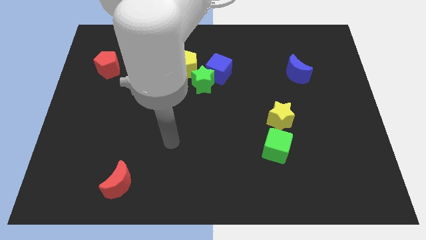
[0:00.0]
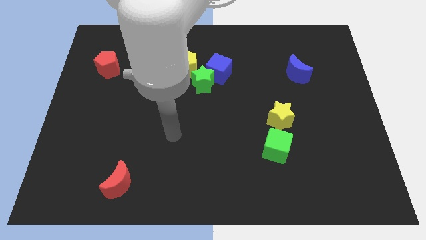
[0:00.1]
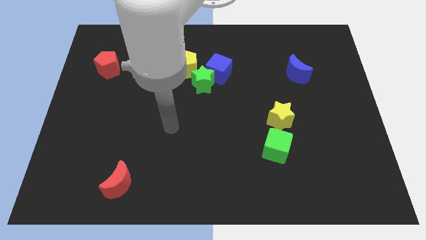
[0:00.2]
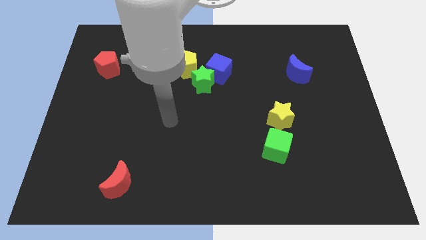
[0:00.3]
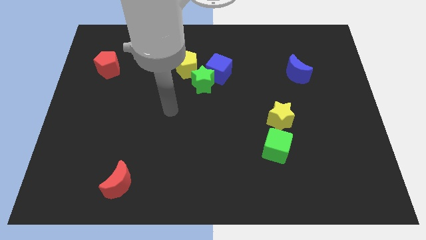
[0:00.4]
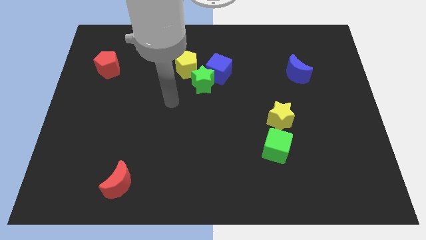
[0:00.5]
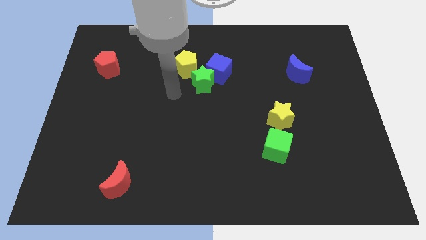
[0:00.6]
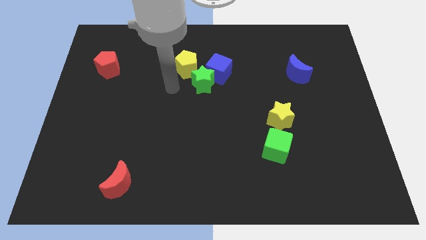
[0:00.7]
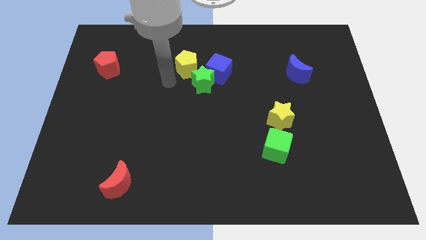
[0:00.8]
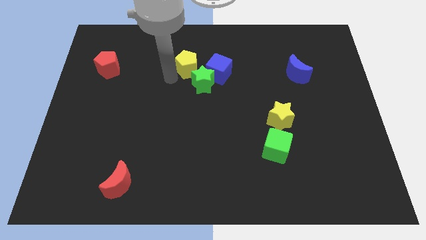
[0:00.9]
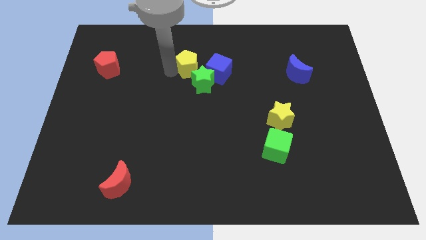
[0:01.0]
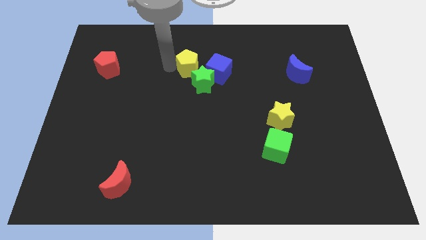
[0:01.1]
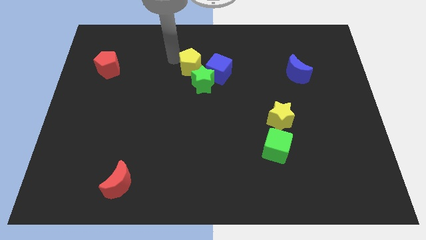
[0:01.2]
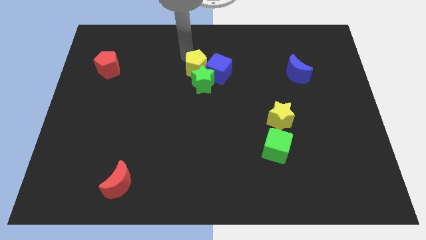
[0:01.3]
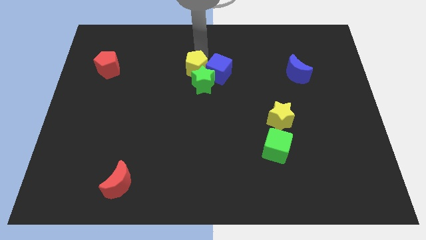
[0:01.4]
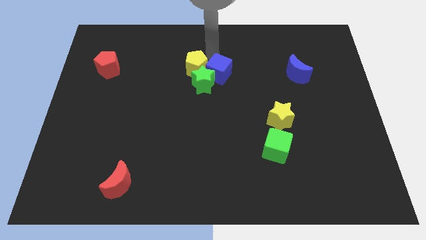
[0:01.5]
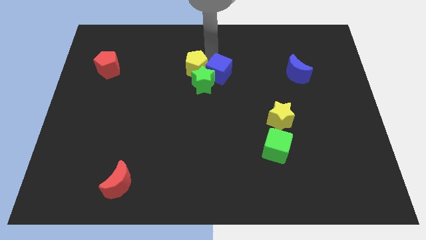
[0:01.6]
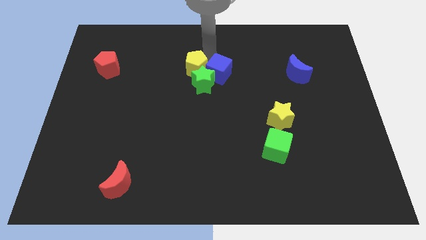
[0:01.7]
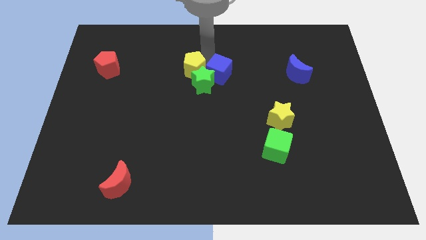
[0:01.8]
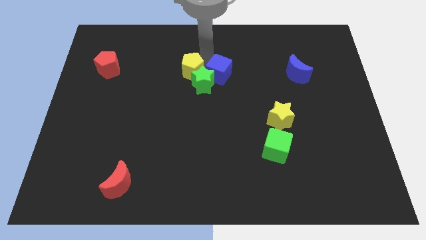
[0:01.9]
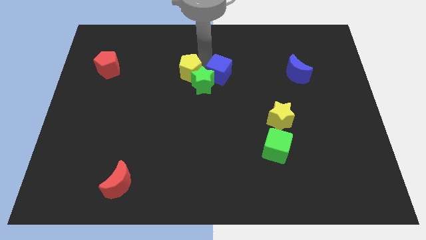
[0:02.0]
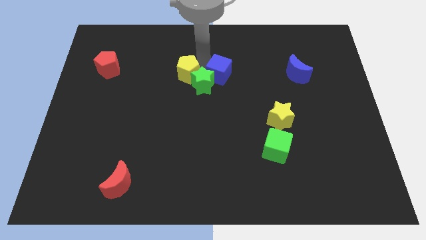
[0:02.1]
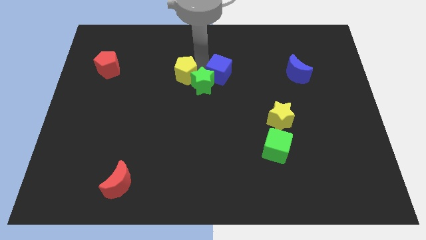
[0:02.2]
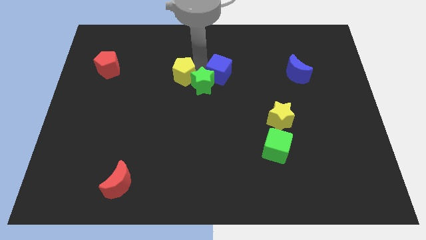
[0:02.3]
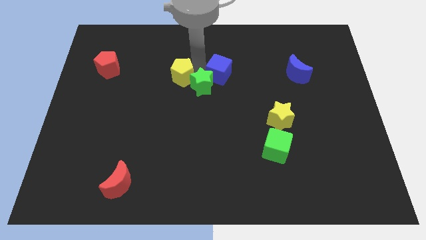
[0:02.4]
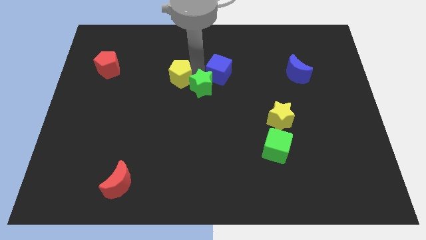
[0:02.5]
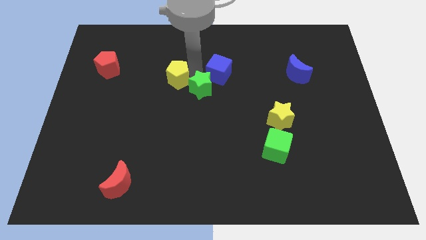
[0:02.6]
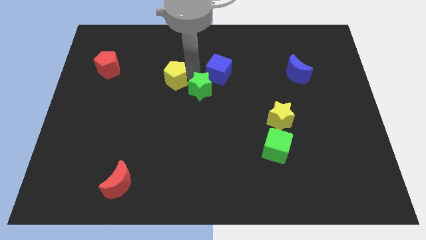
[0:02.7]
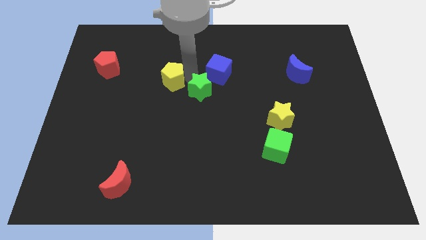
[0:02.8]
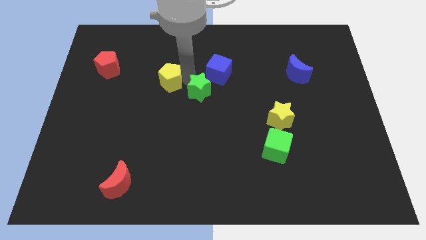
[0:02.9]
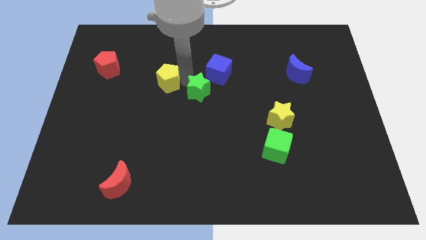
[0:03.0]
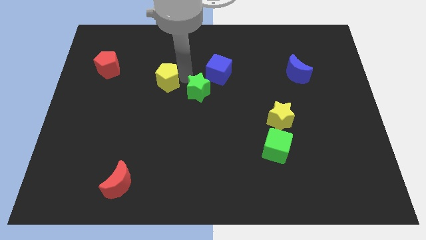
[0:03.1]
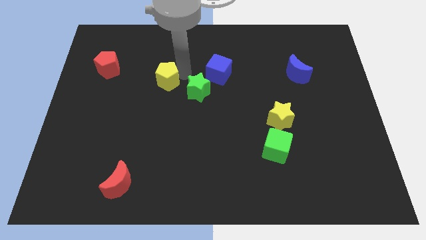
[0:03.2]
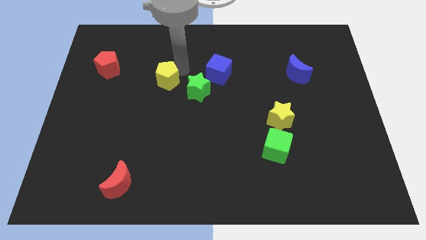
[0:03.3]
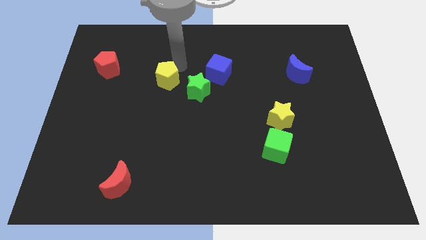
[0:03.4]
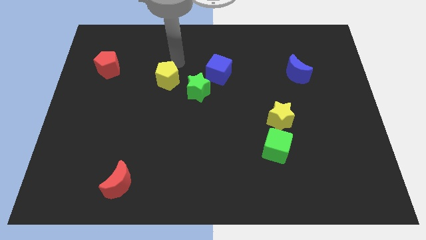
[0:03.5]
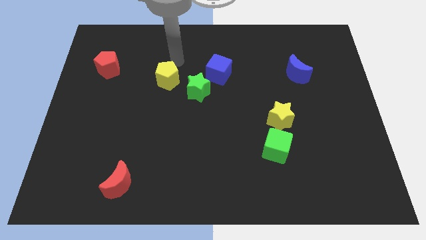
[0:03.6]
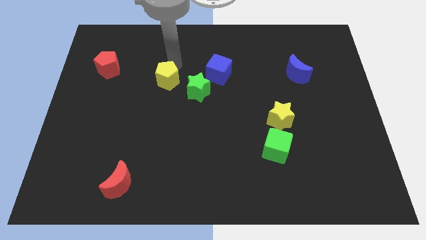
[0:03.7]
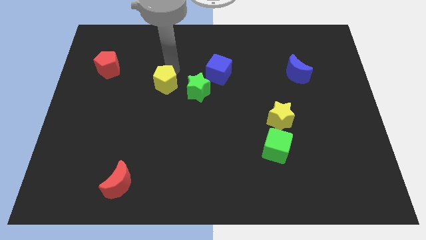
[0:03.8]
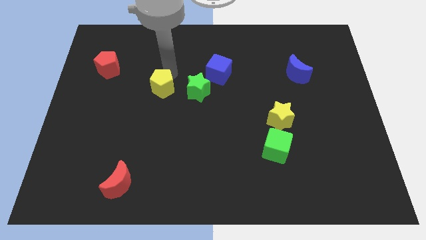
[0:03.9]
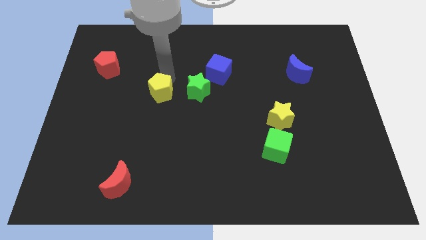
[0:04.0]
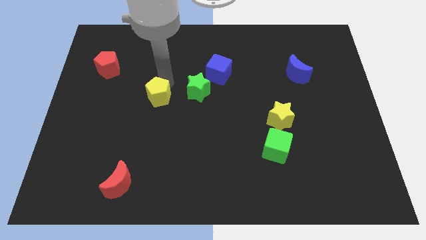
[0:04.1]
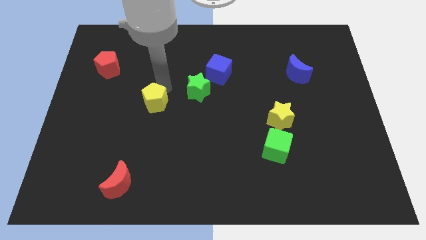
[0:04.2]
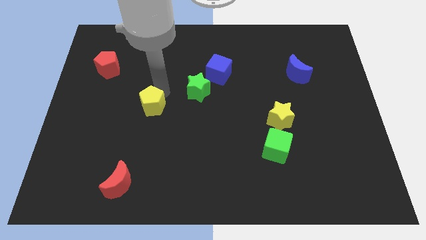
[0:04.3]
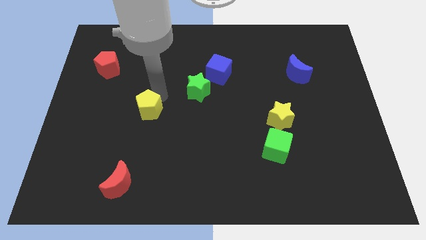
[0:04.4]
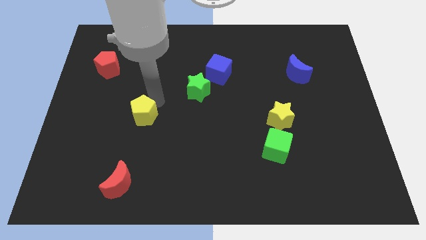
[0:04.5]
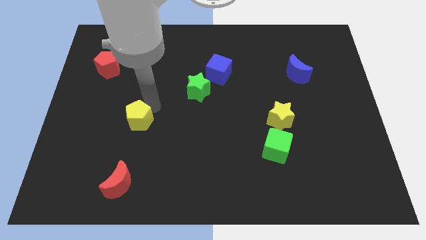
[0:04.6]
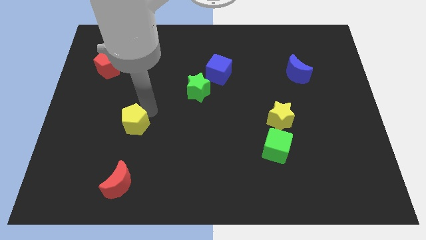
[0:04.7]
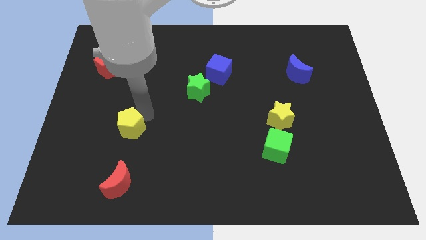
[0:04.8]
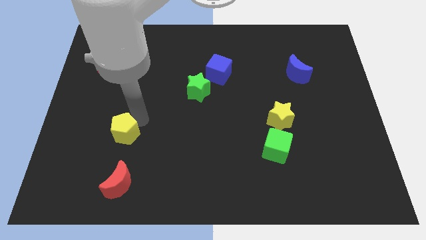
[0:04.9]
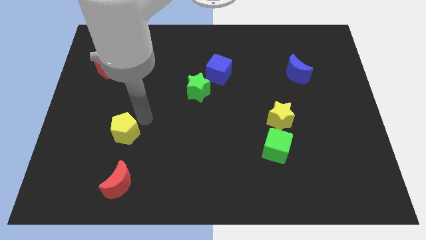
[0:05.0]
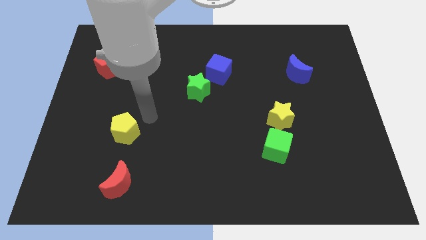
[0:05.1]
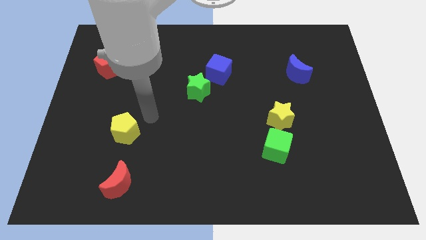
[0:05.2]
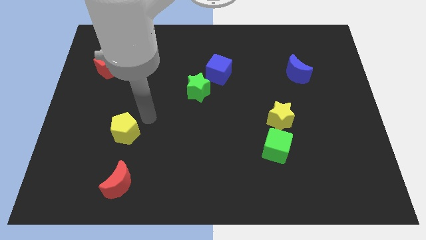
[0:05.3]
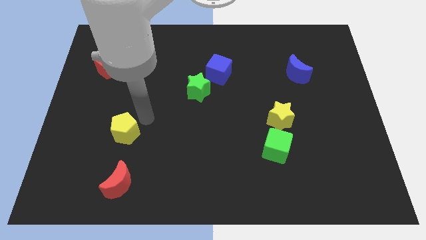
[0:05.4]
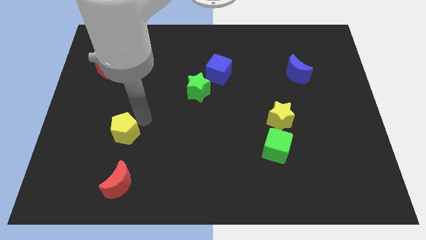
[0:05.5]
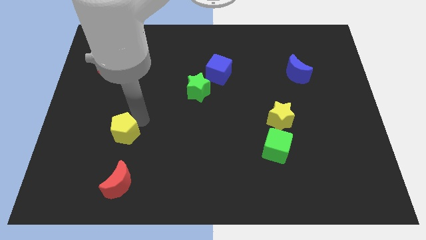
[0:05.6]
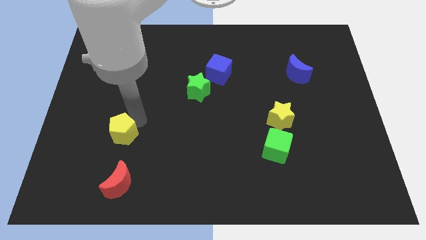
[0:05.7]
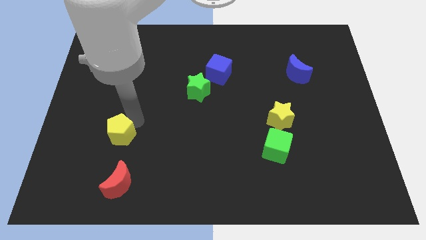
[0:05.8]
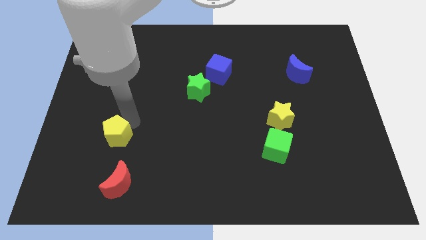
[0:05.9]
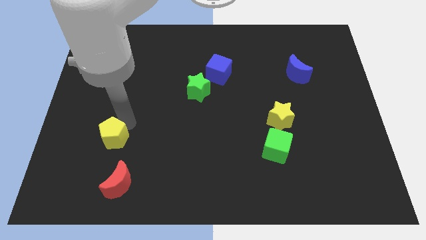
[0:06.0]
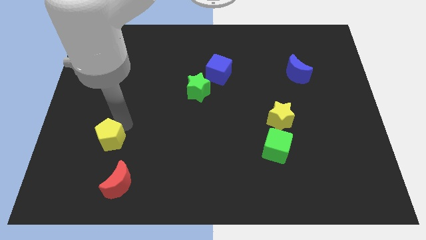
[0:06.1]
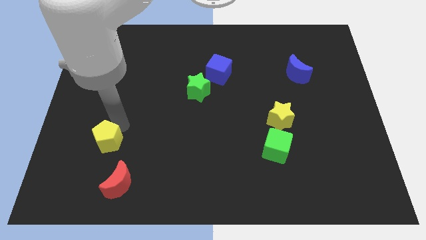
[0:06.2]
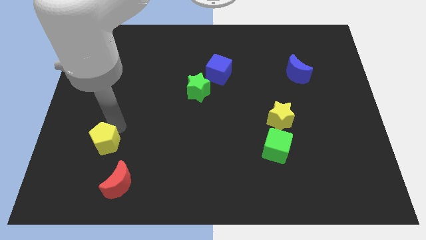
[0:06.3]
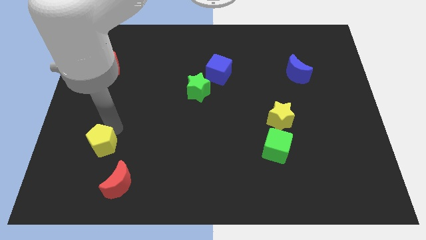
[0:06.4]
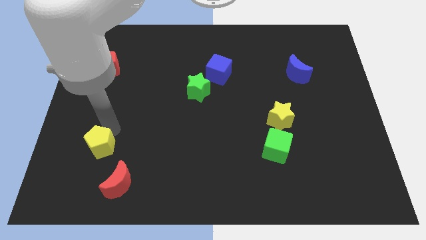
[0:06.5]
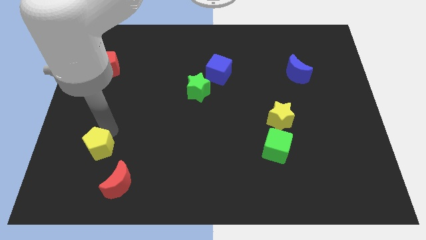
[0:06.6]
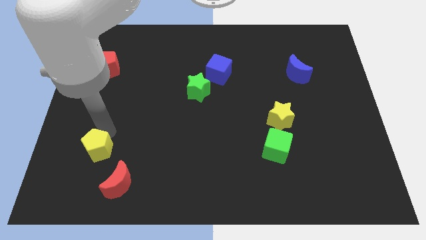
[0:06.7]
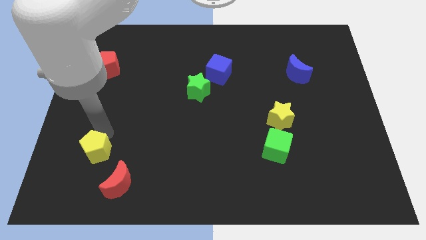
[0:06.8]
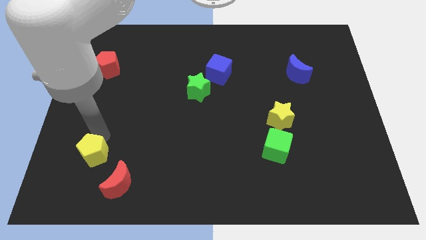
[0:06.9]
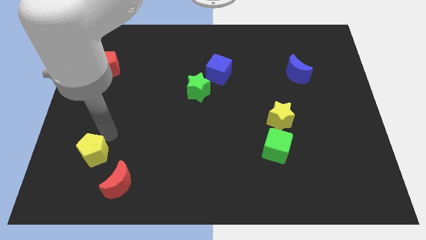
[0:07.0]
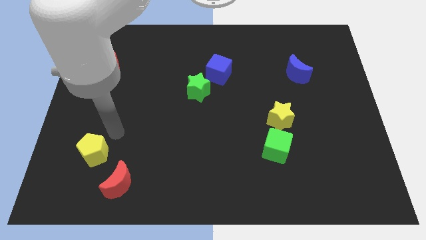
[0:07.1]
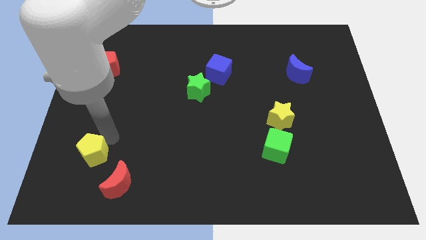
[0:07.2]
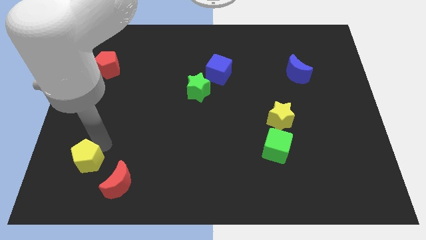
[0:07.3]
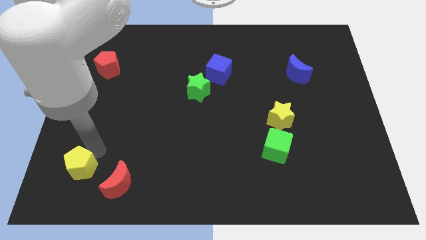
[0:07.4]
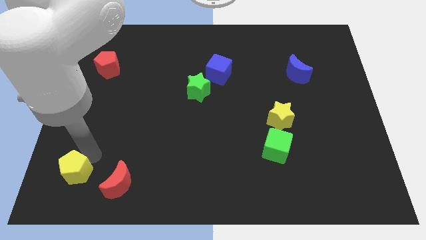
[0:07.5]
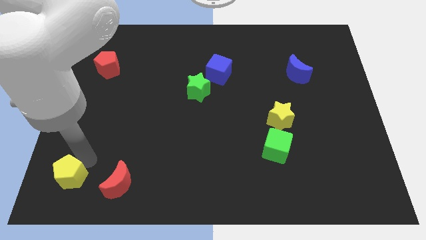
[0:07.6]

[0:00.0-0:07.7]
put the yellow pentagon to the bottom left corner

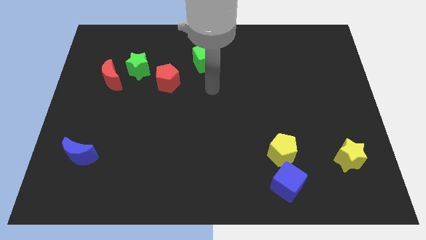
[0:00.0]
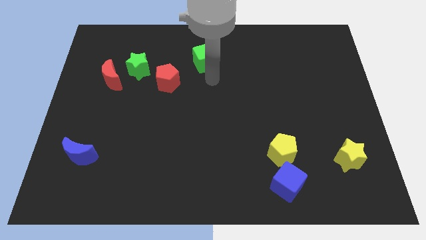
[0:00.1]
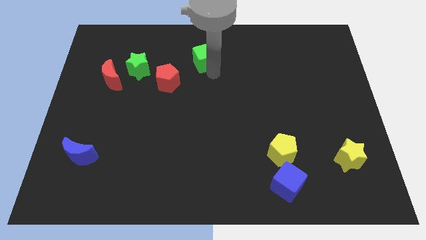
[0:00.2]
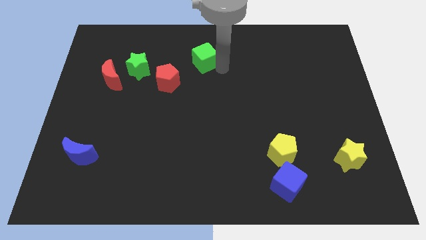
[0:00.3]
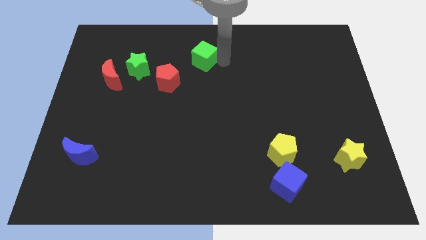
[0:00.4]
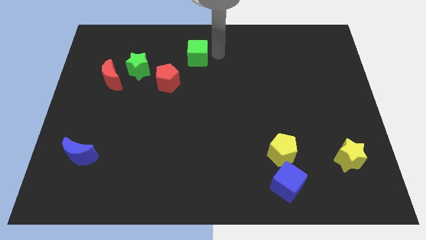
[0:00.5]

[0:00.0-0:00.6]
put the green cube to the towards your base
